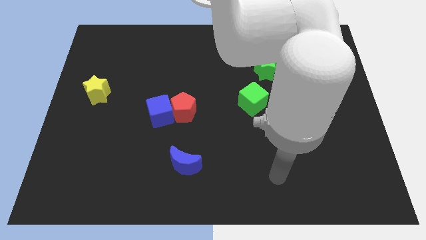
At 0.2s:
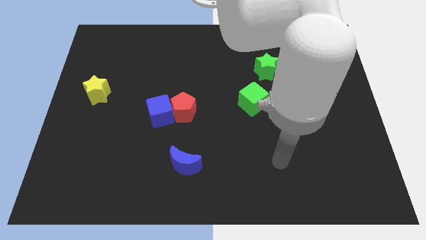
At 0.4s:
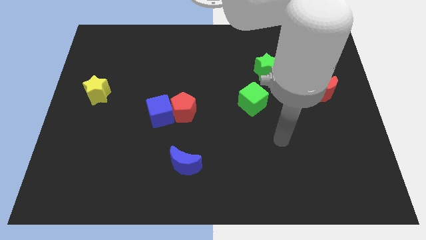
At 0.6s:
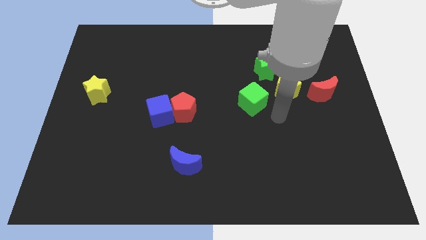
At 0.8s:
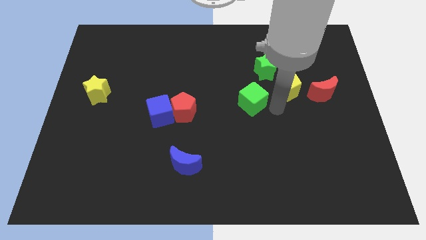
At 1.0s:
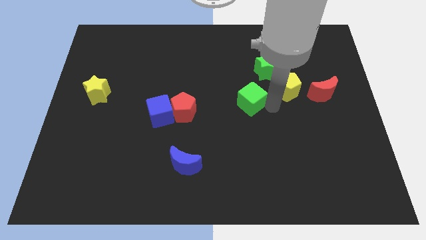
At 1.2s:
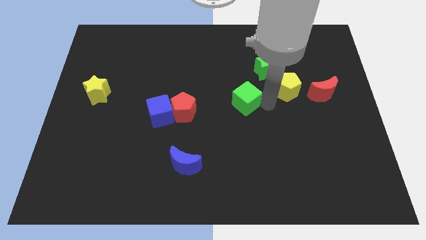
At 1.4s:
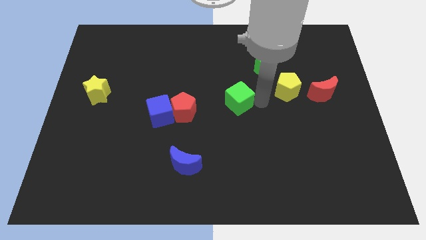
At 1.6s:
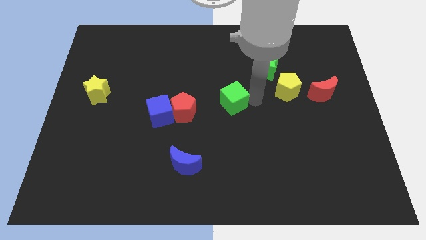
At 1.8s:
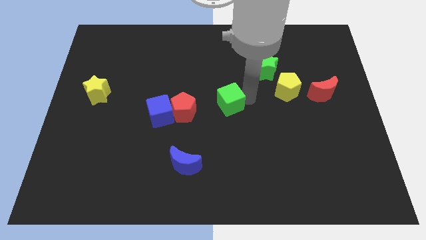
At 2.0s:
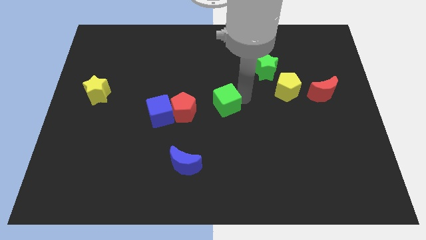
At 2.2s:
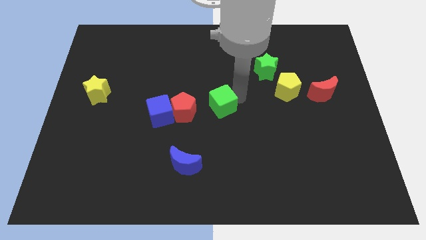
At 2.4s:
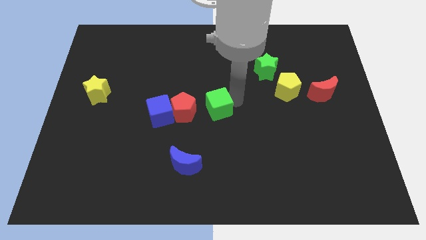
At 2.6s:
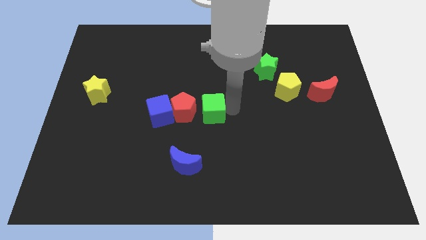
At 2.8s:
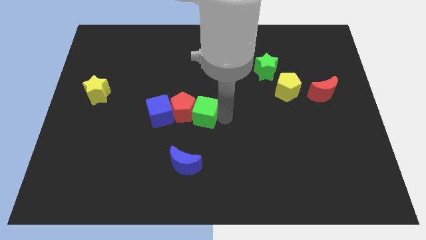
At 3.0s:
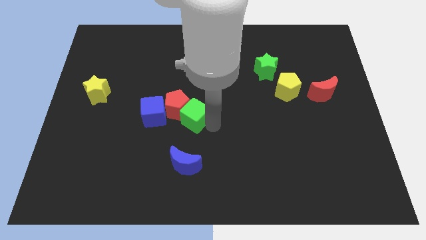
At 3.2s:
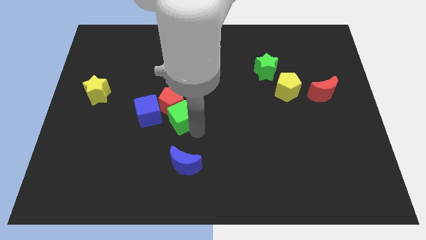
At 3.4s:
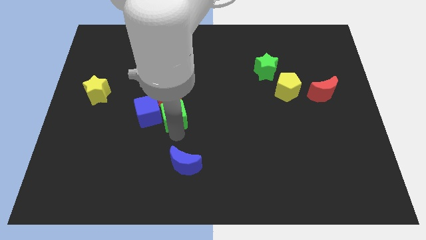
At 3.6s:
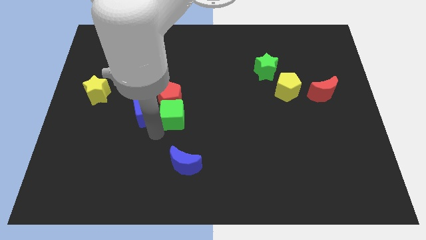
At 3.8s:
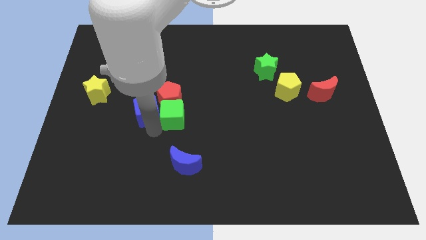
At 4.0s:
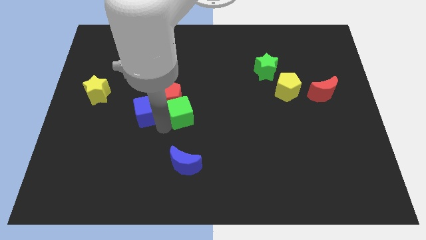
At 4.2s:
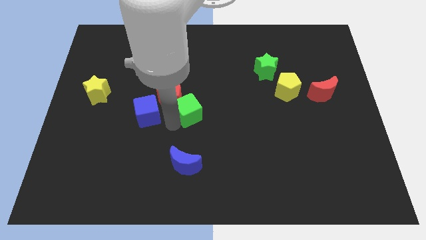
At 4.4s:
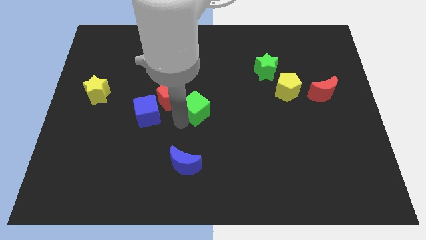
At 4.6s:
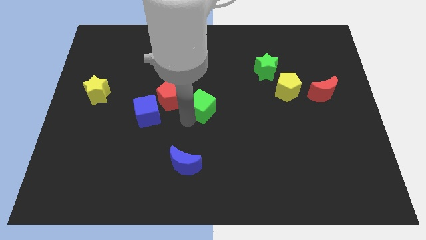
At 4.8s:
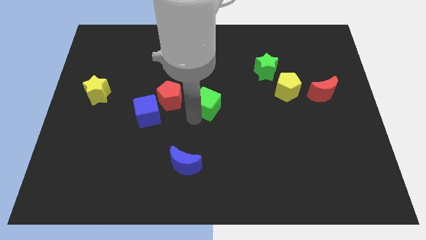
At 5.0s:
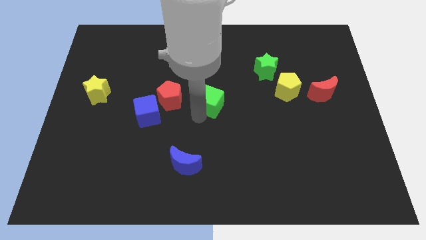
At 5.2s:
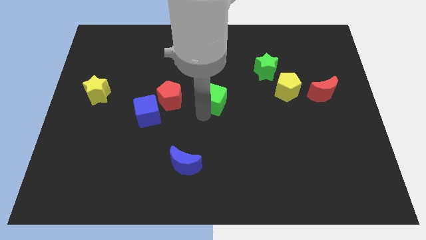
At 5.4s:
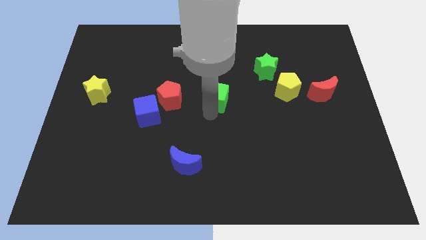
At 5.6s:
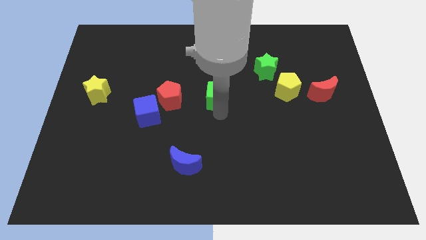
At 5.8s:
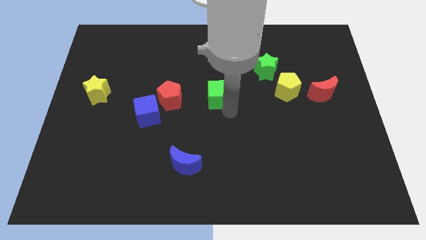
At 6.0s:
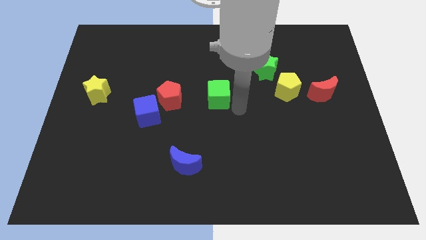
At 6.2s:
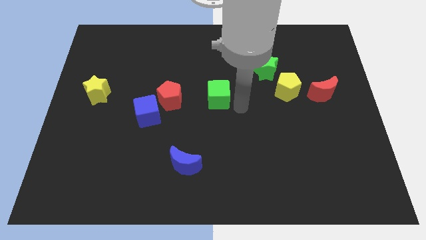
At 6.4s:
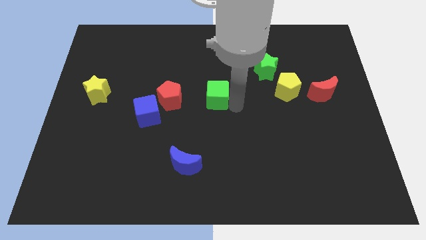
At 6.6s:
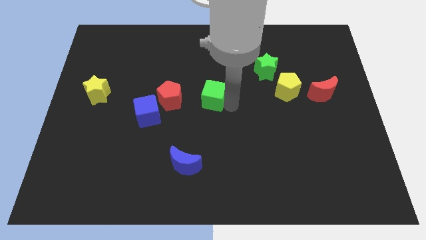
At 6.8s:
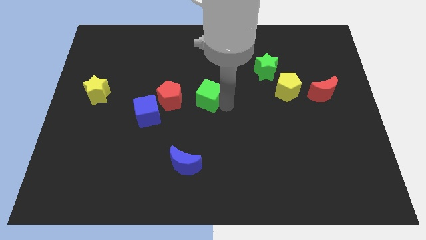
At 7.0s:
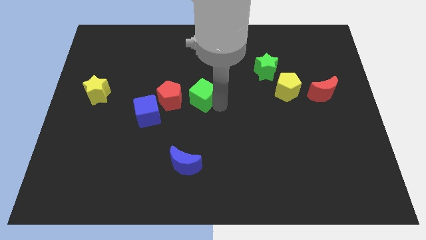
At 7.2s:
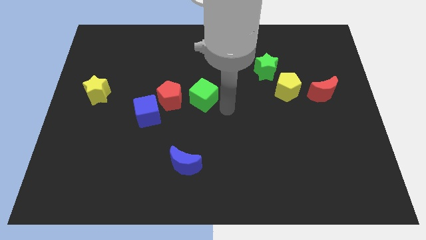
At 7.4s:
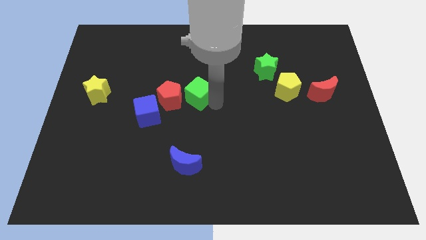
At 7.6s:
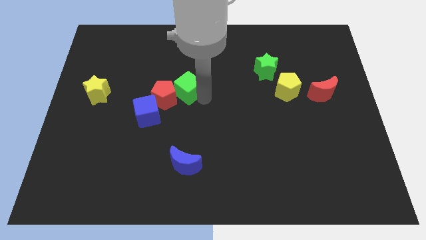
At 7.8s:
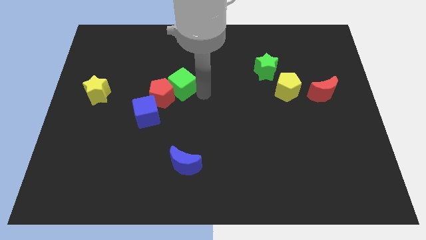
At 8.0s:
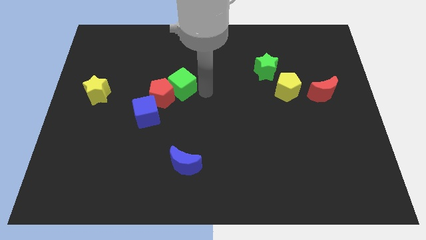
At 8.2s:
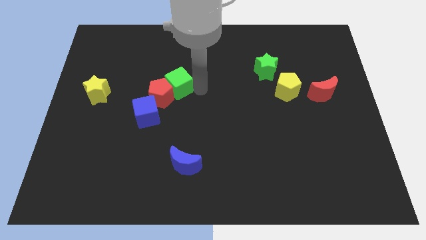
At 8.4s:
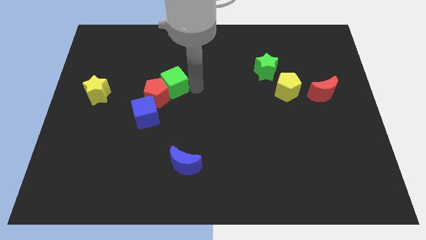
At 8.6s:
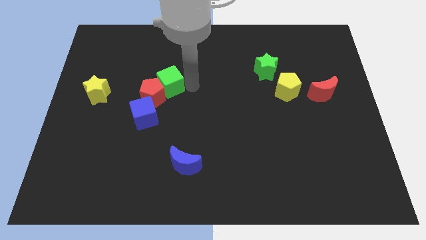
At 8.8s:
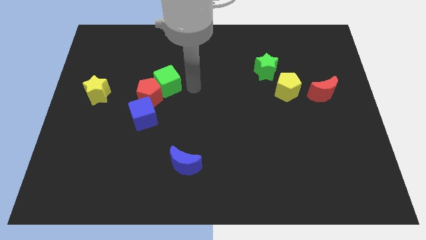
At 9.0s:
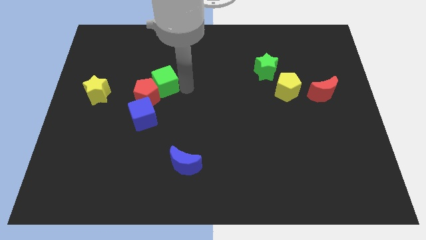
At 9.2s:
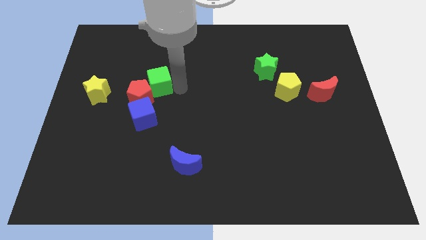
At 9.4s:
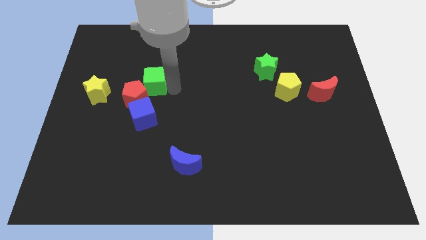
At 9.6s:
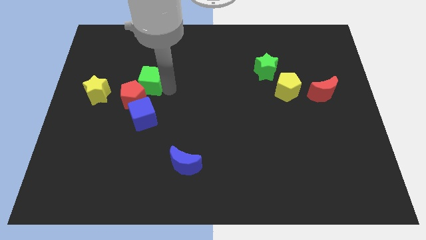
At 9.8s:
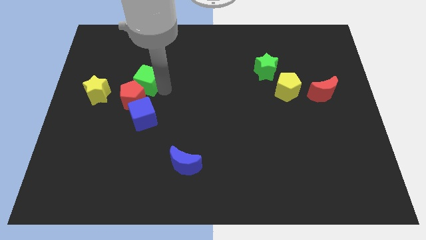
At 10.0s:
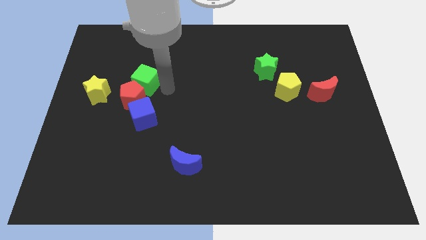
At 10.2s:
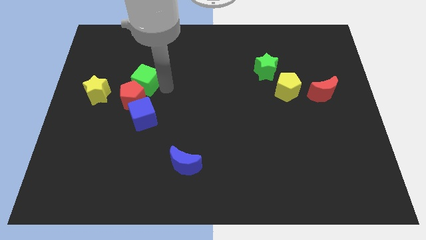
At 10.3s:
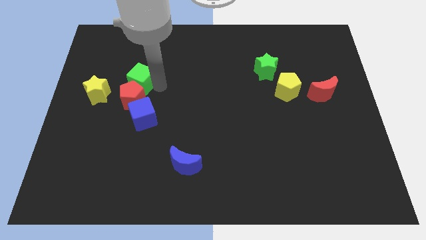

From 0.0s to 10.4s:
slide the green cube diagonally up and to the right of the yellow star

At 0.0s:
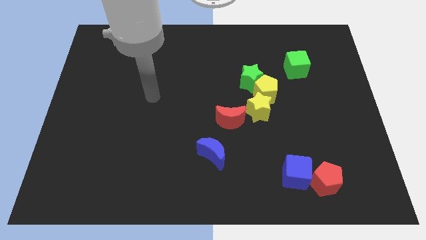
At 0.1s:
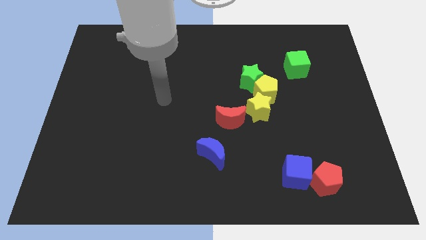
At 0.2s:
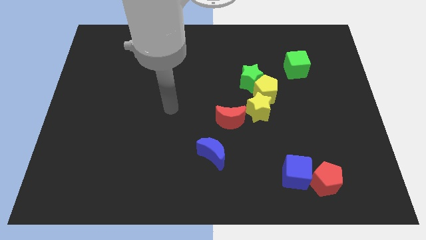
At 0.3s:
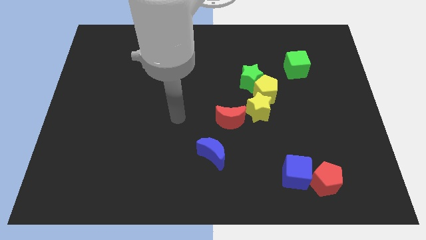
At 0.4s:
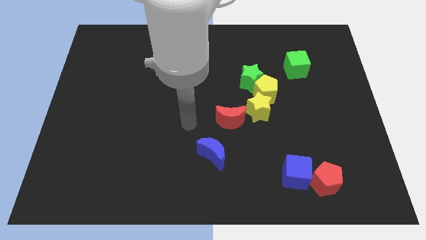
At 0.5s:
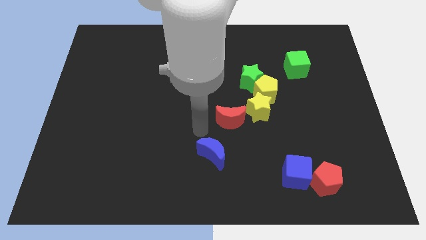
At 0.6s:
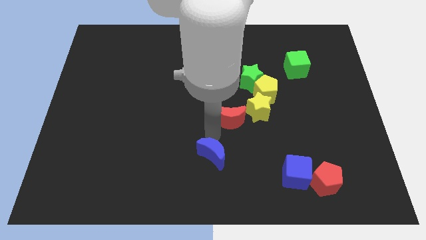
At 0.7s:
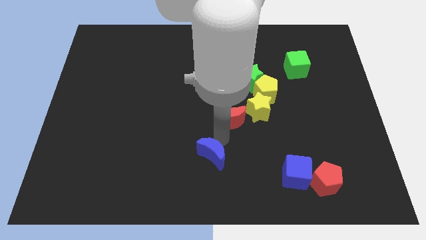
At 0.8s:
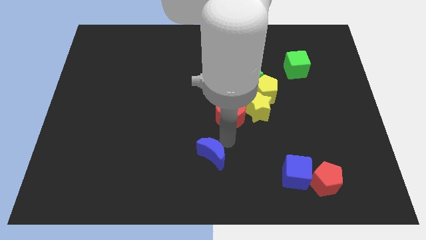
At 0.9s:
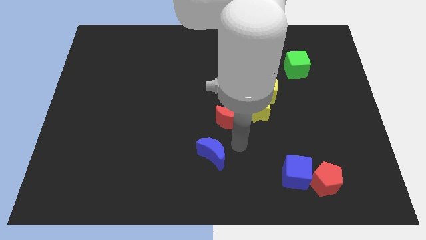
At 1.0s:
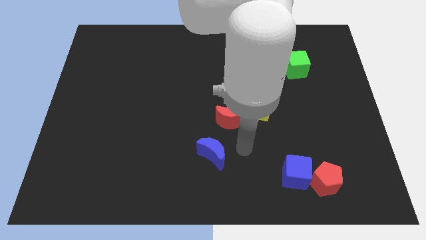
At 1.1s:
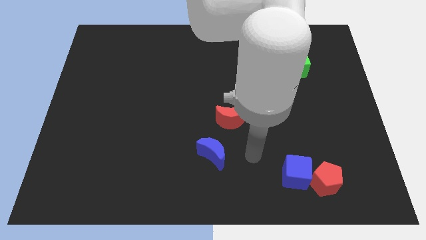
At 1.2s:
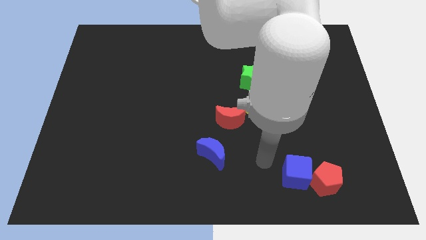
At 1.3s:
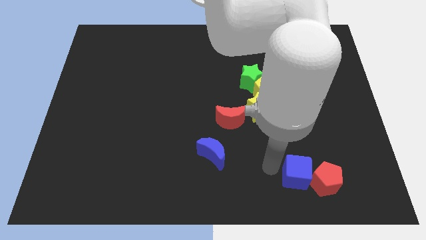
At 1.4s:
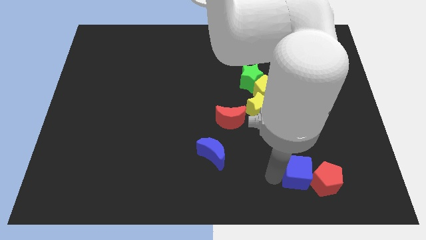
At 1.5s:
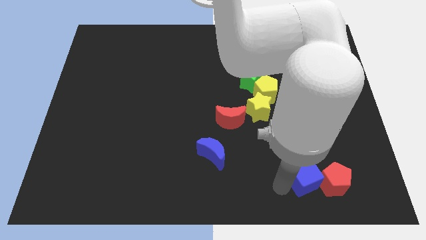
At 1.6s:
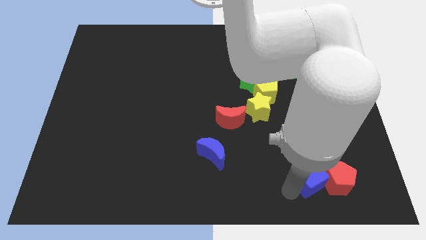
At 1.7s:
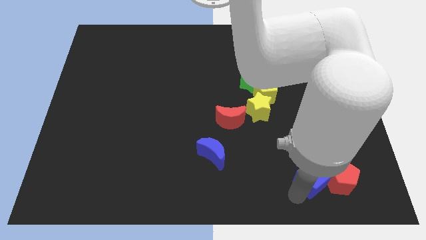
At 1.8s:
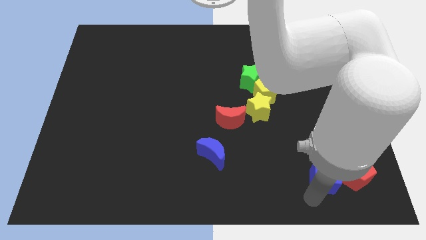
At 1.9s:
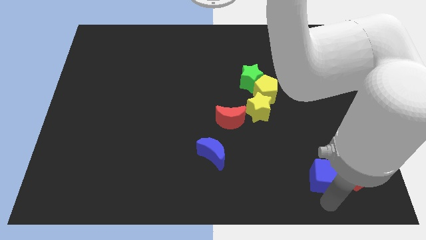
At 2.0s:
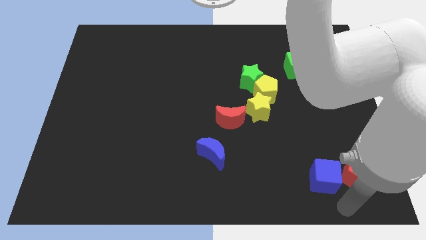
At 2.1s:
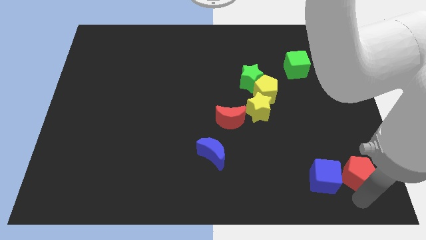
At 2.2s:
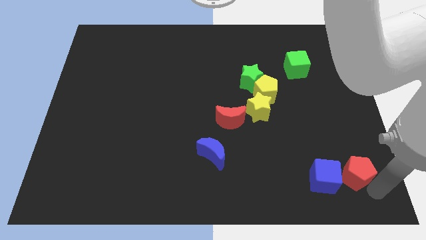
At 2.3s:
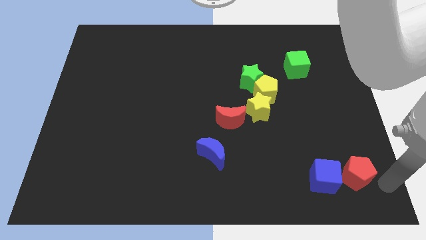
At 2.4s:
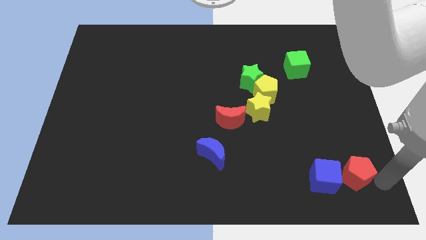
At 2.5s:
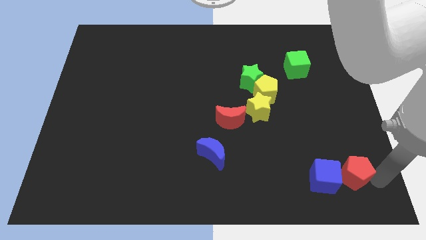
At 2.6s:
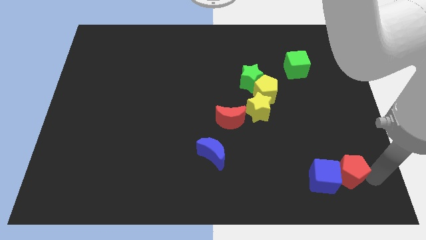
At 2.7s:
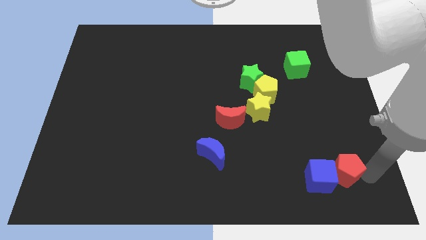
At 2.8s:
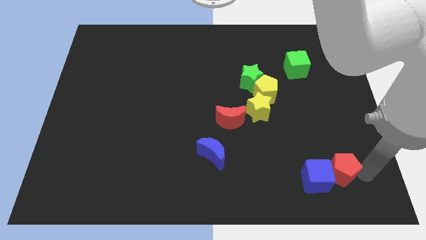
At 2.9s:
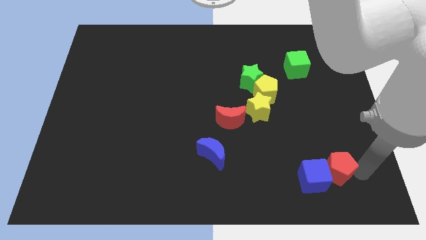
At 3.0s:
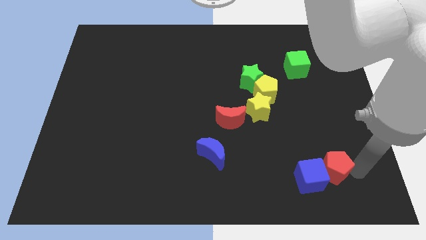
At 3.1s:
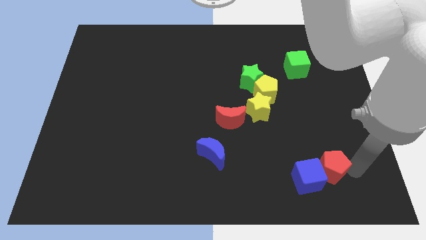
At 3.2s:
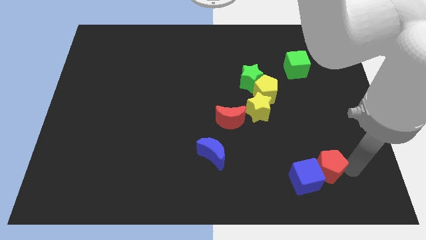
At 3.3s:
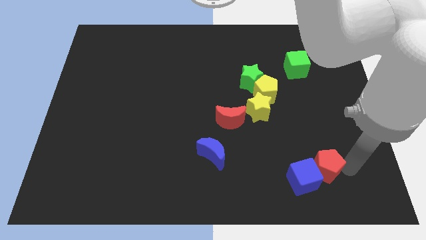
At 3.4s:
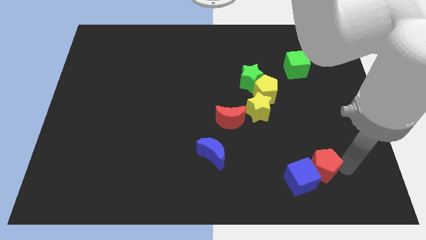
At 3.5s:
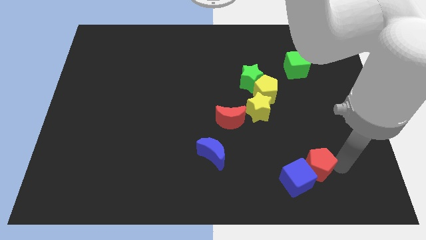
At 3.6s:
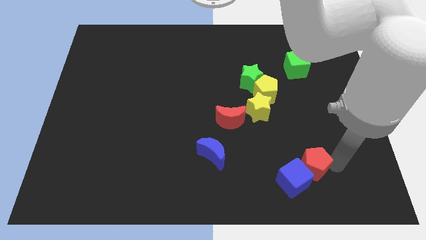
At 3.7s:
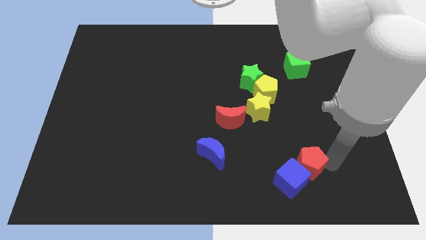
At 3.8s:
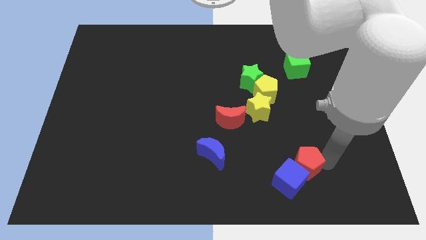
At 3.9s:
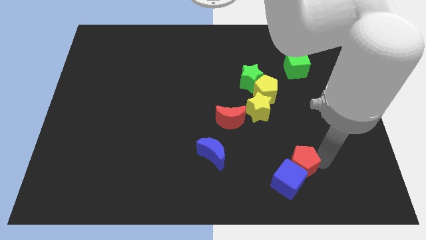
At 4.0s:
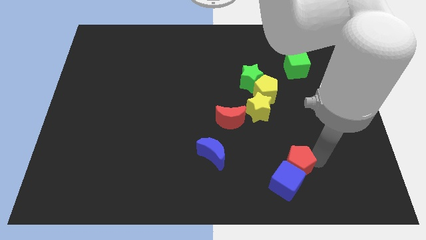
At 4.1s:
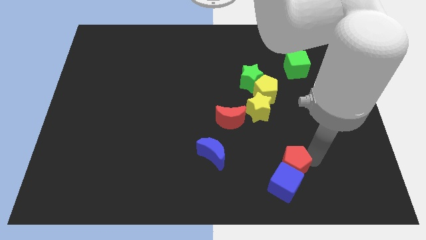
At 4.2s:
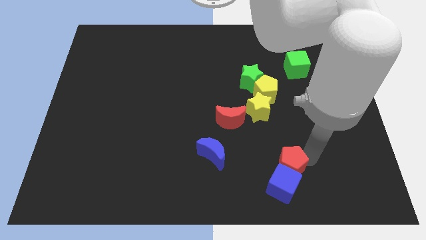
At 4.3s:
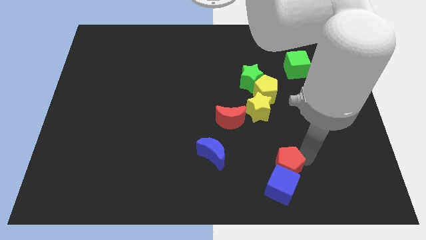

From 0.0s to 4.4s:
slide the red pentagon to the top left side of the blue cube
